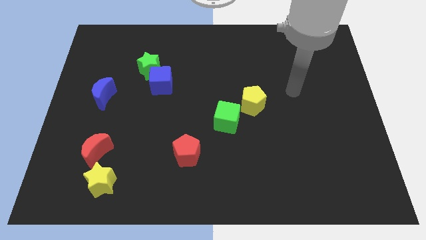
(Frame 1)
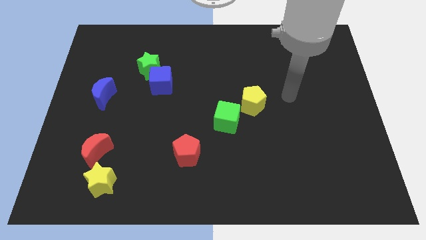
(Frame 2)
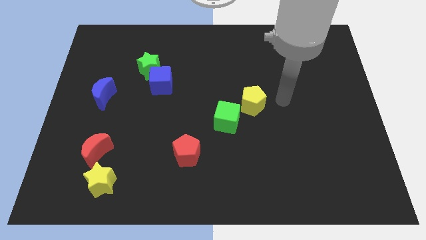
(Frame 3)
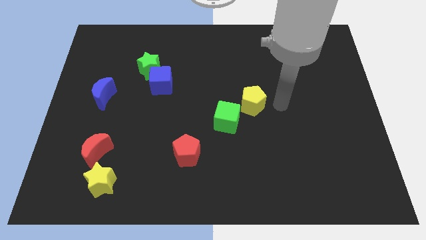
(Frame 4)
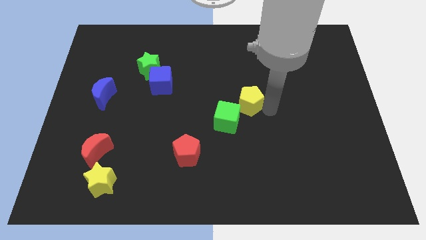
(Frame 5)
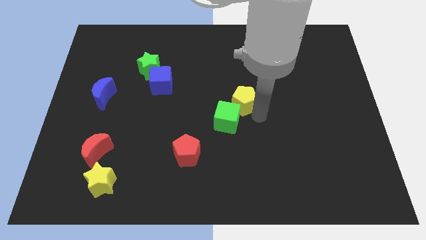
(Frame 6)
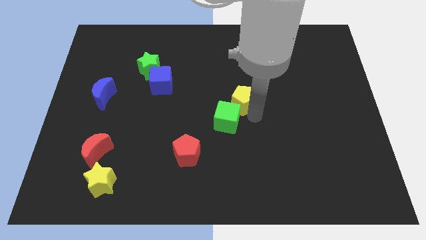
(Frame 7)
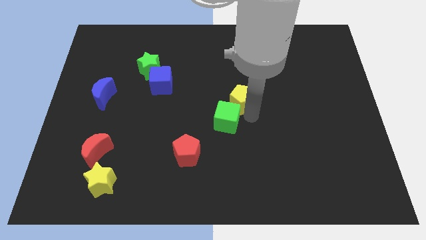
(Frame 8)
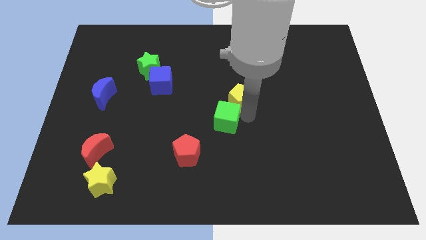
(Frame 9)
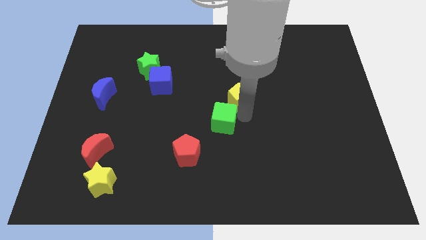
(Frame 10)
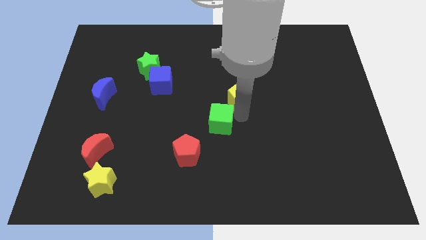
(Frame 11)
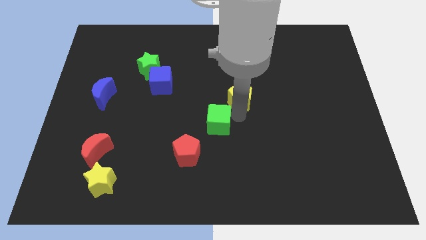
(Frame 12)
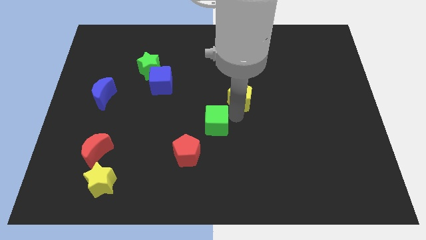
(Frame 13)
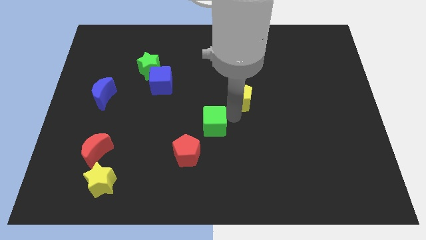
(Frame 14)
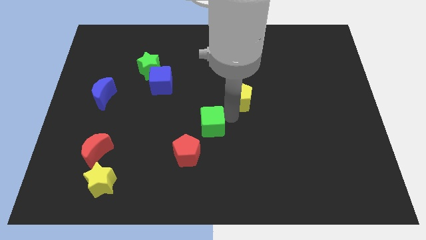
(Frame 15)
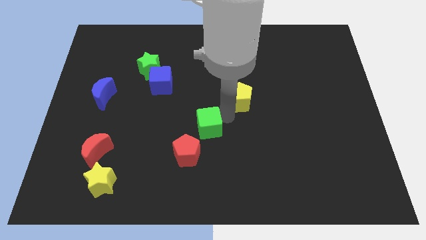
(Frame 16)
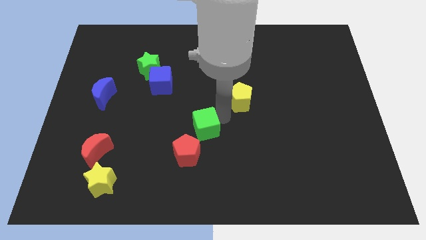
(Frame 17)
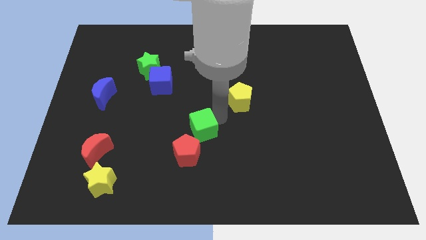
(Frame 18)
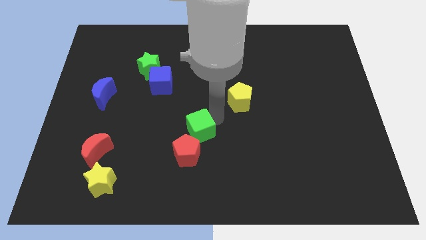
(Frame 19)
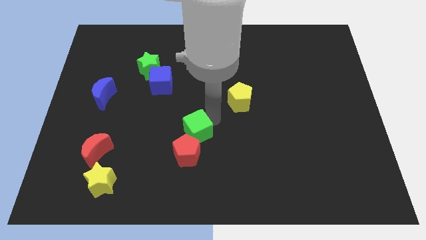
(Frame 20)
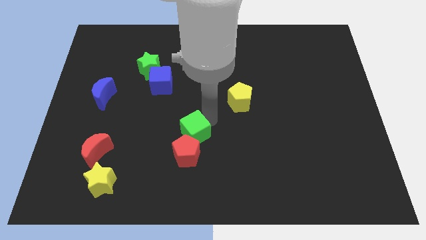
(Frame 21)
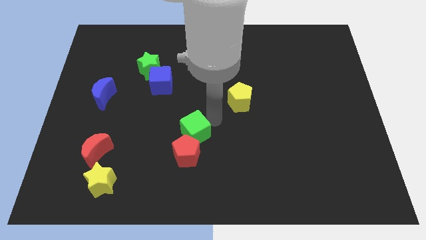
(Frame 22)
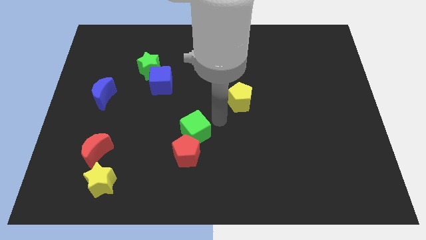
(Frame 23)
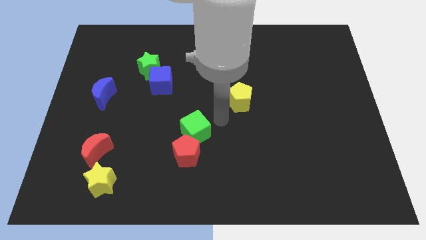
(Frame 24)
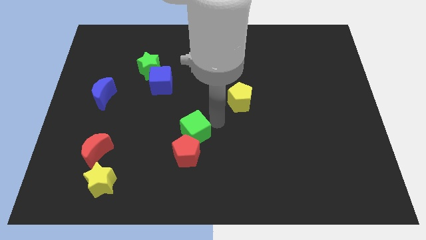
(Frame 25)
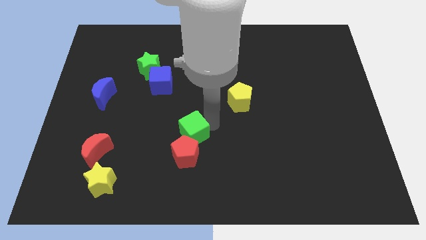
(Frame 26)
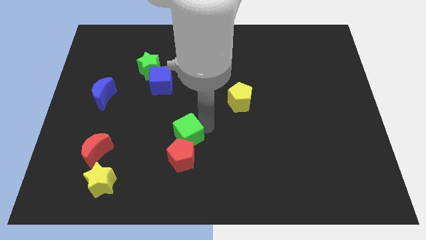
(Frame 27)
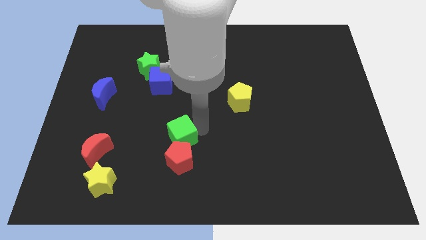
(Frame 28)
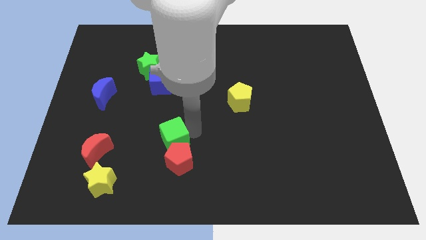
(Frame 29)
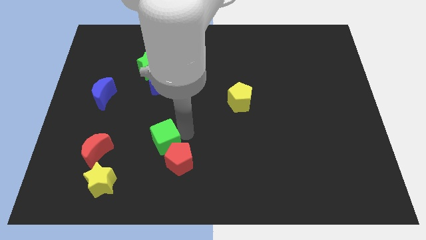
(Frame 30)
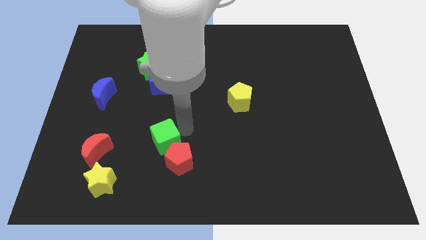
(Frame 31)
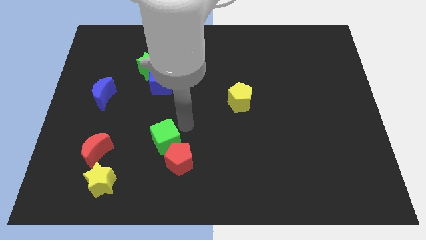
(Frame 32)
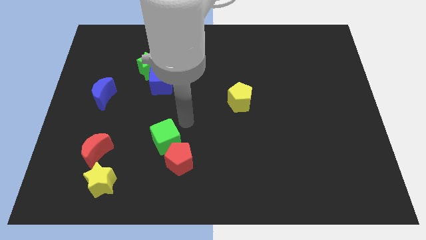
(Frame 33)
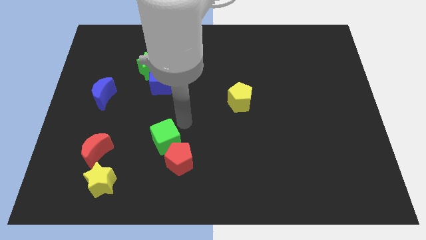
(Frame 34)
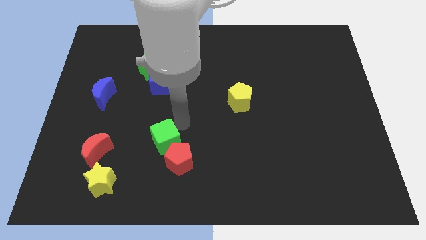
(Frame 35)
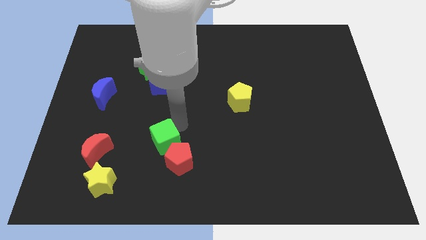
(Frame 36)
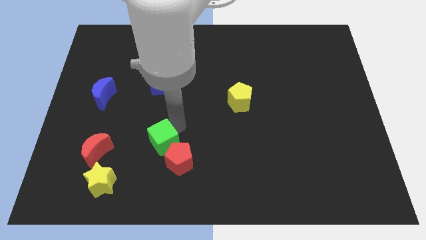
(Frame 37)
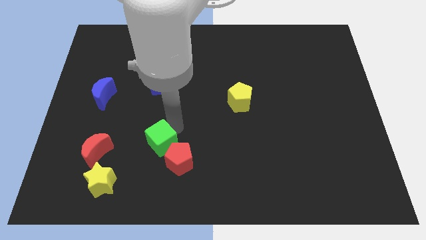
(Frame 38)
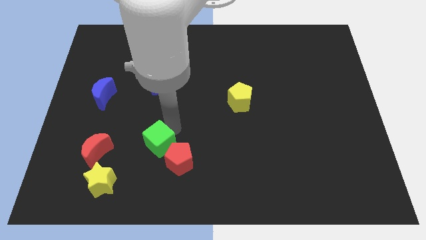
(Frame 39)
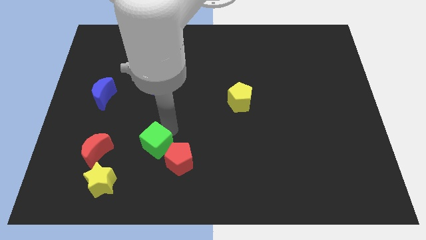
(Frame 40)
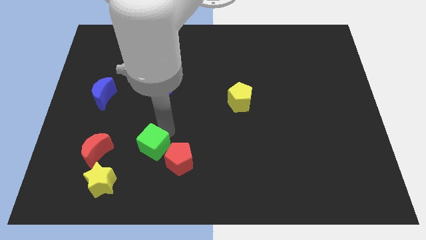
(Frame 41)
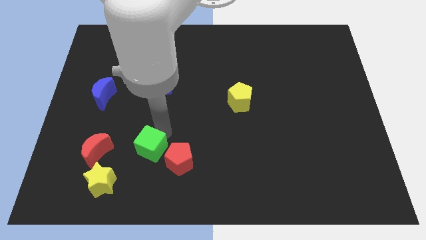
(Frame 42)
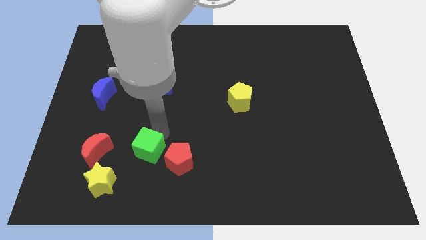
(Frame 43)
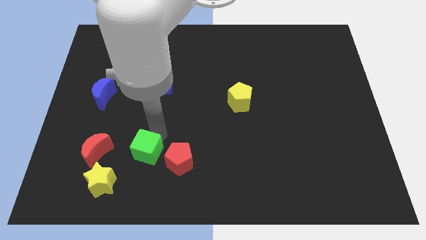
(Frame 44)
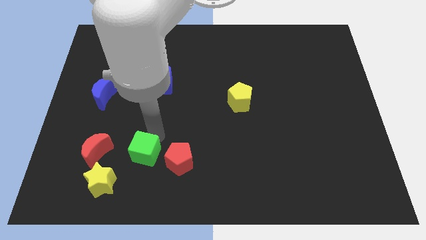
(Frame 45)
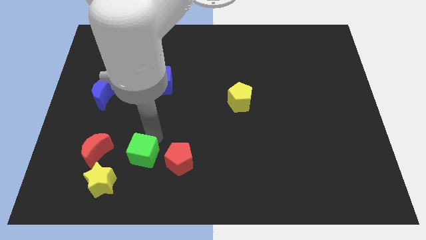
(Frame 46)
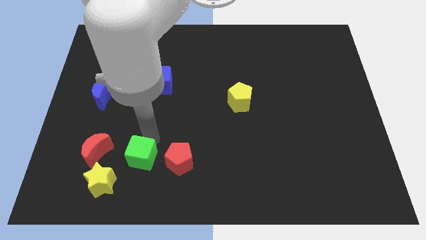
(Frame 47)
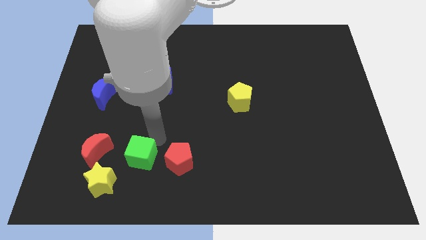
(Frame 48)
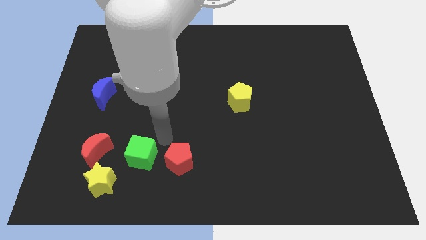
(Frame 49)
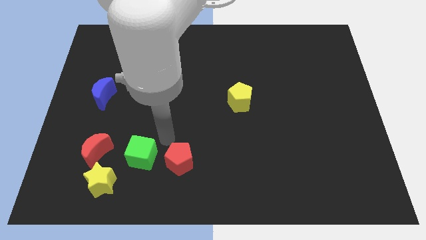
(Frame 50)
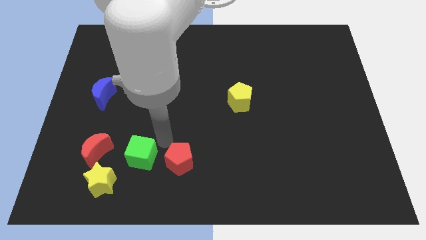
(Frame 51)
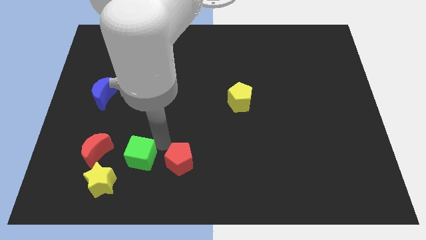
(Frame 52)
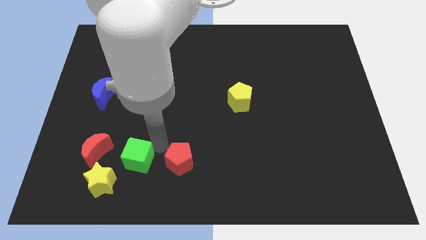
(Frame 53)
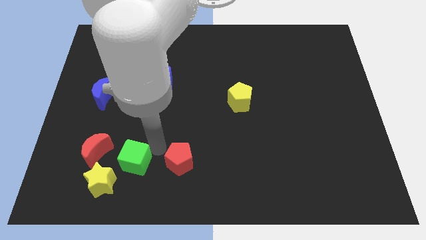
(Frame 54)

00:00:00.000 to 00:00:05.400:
move the green cube diagonally down and to the right of the red moon

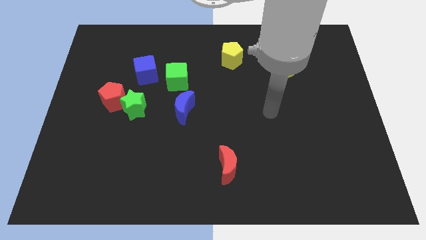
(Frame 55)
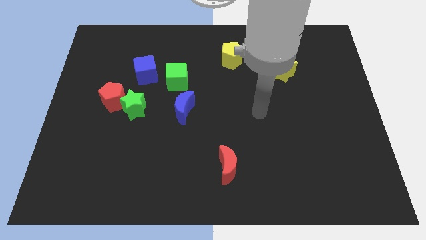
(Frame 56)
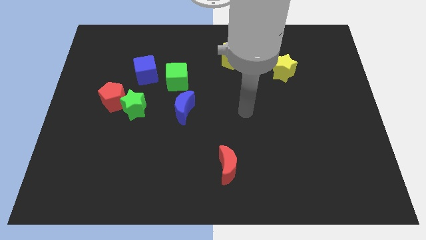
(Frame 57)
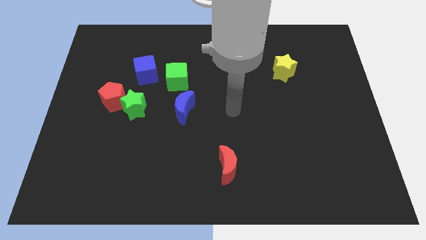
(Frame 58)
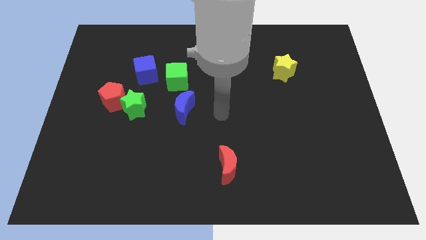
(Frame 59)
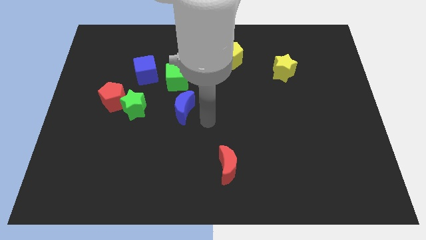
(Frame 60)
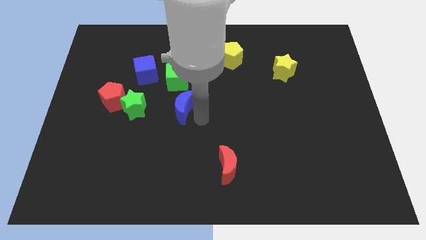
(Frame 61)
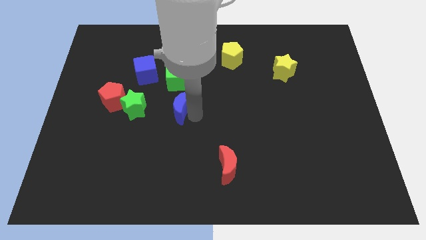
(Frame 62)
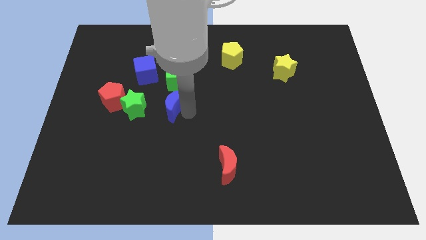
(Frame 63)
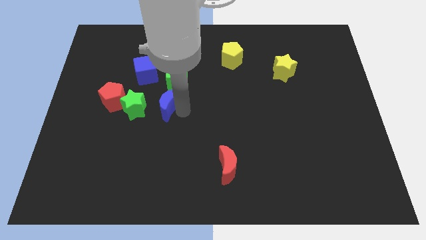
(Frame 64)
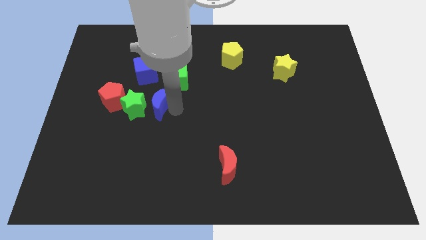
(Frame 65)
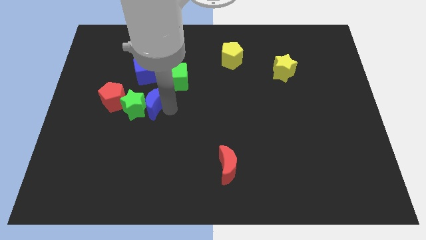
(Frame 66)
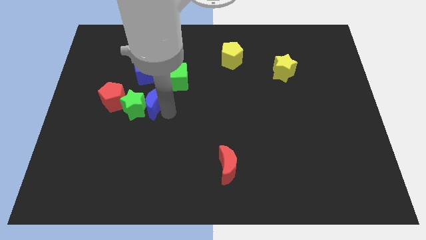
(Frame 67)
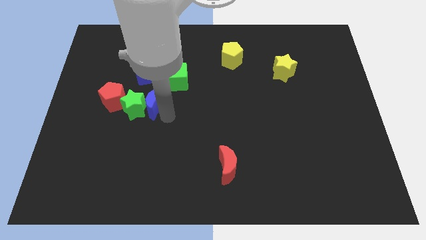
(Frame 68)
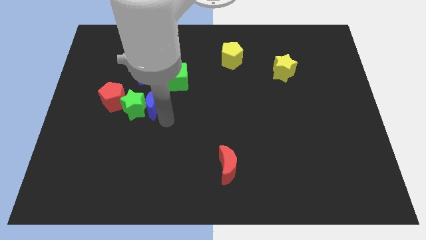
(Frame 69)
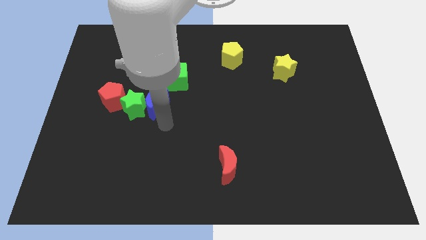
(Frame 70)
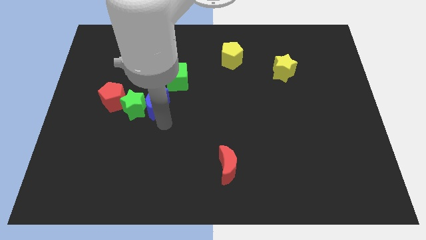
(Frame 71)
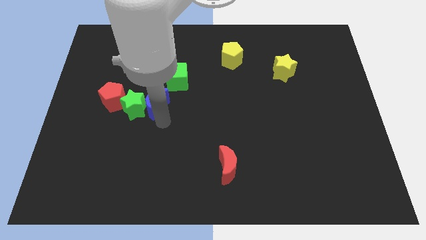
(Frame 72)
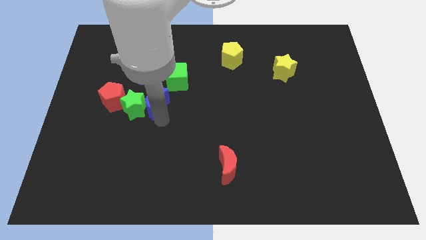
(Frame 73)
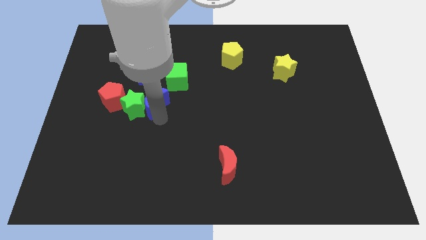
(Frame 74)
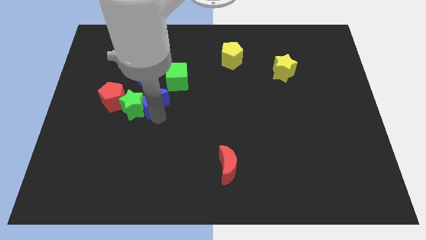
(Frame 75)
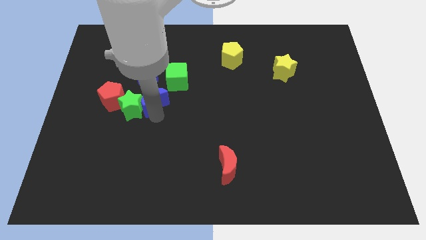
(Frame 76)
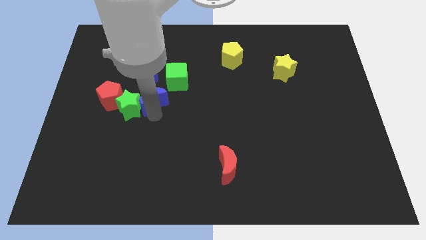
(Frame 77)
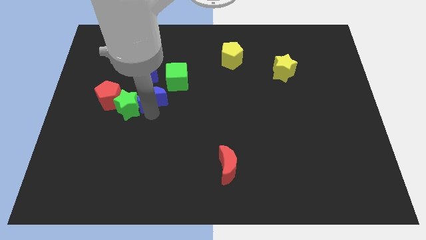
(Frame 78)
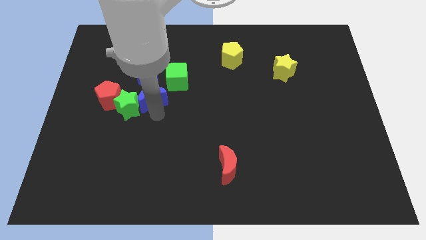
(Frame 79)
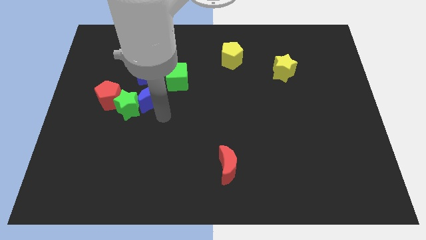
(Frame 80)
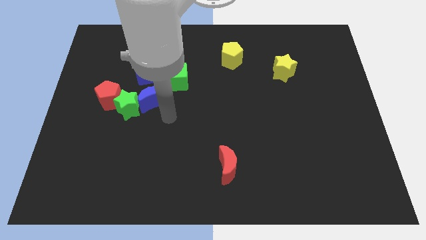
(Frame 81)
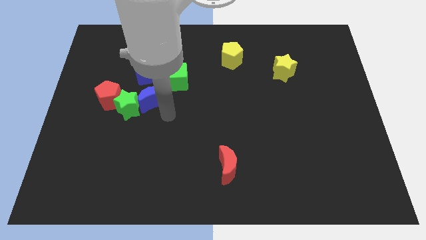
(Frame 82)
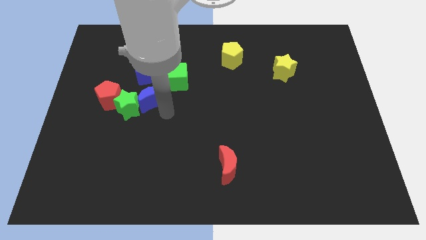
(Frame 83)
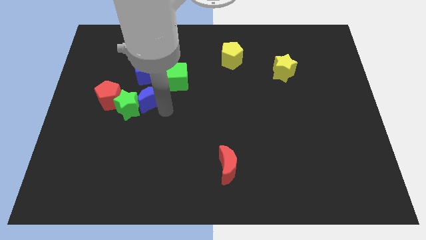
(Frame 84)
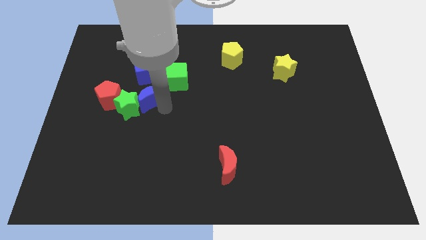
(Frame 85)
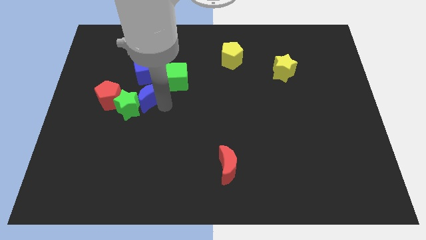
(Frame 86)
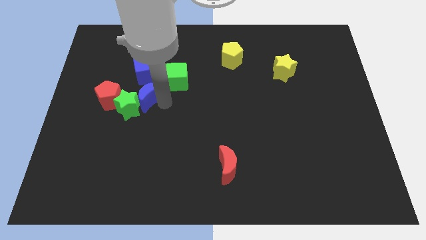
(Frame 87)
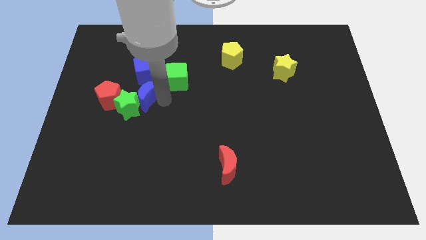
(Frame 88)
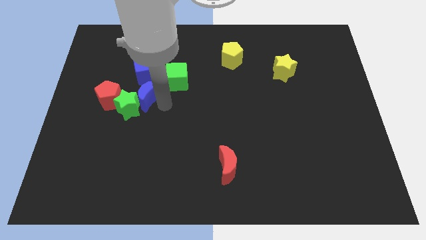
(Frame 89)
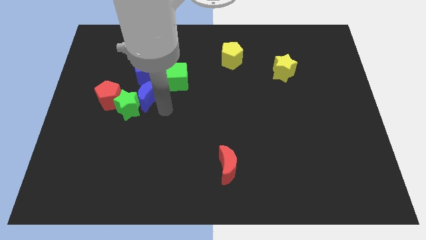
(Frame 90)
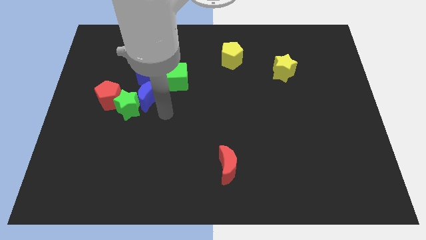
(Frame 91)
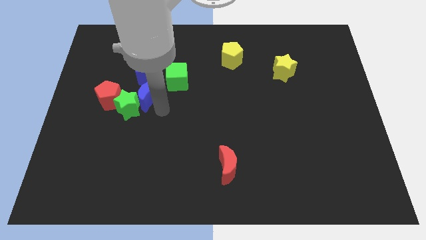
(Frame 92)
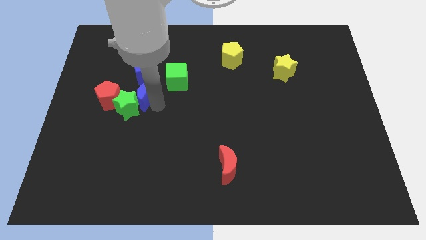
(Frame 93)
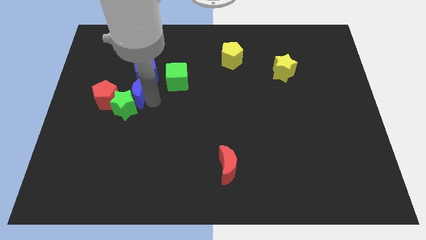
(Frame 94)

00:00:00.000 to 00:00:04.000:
push the blue moon diagonally up and to the right of the red pentagon
